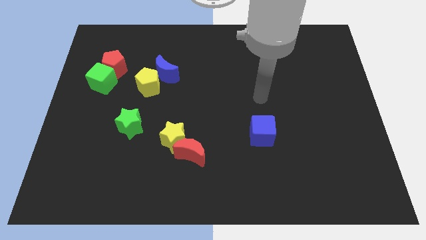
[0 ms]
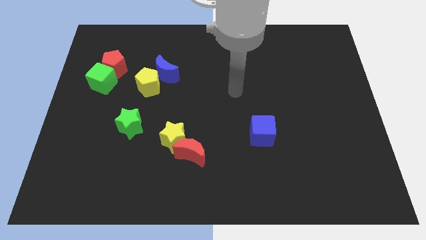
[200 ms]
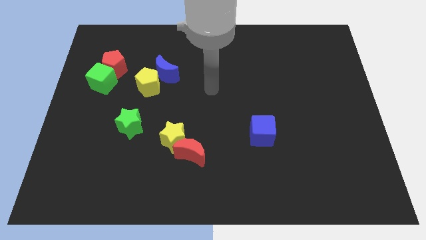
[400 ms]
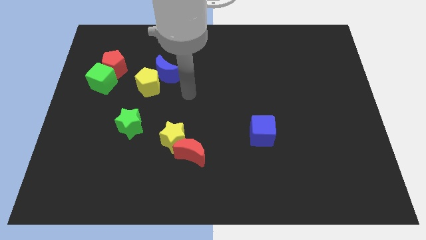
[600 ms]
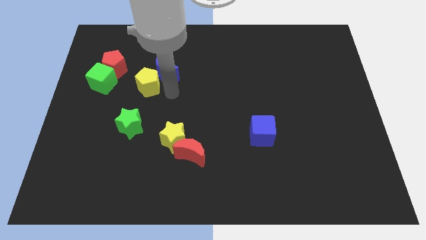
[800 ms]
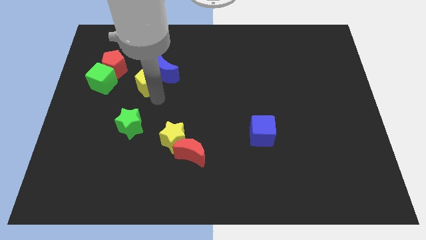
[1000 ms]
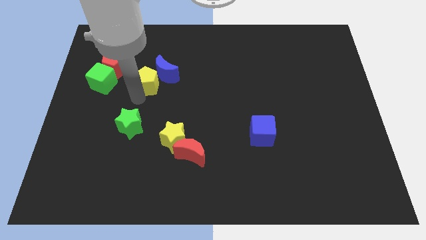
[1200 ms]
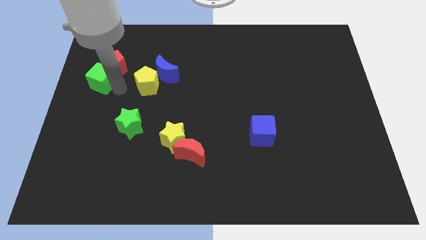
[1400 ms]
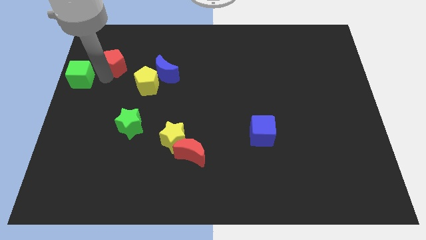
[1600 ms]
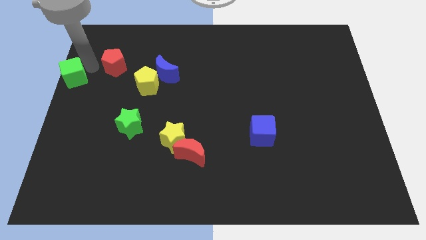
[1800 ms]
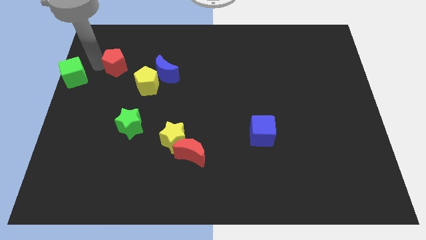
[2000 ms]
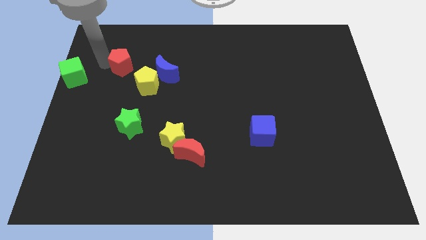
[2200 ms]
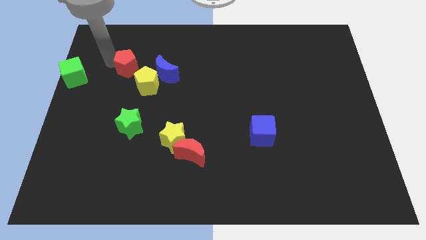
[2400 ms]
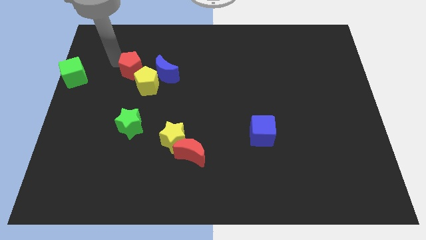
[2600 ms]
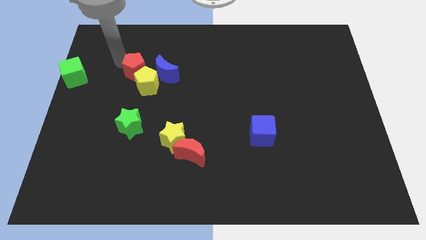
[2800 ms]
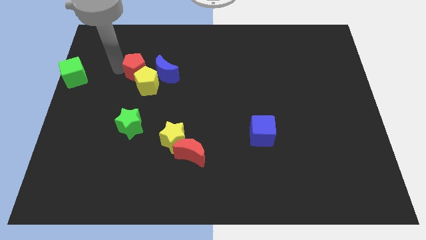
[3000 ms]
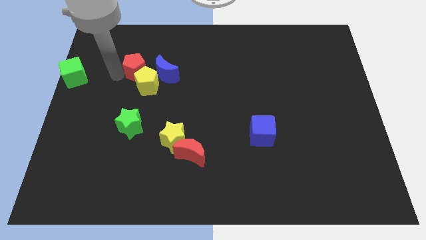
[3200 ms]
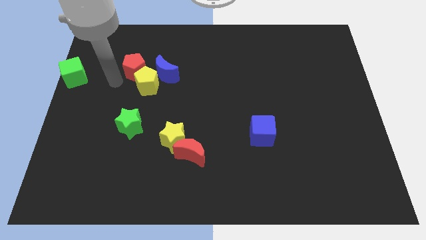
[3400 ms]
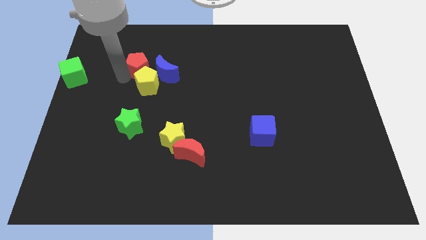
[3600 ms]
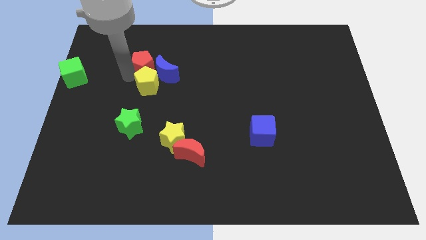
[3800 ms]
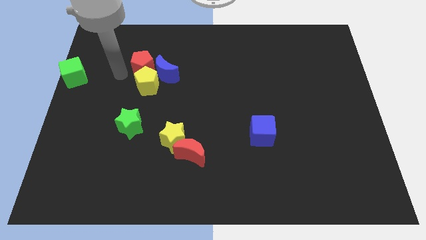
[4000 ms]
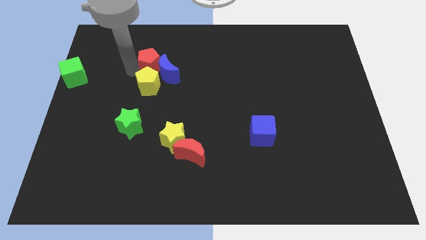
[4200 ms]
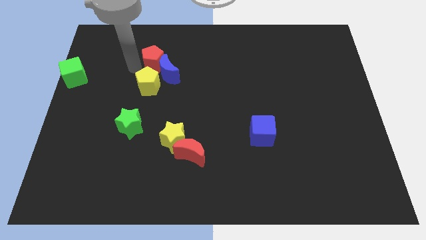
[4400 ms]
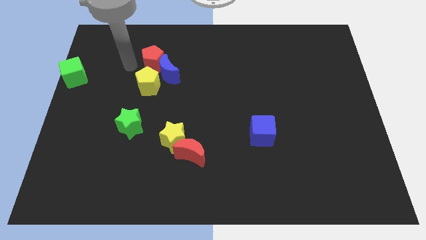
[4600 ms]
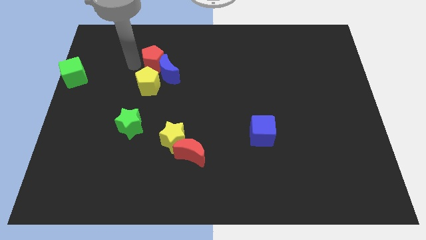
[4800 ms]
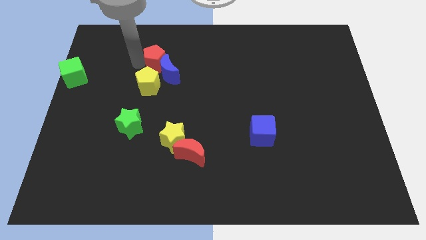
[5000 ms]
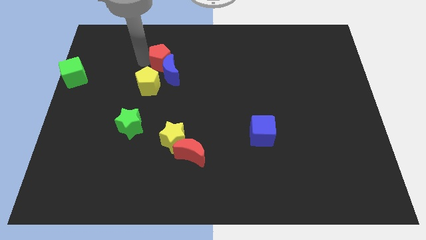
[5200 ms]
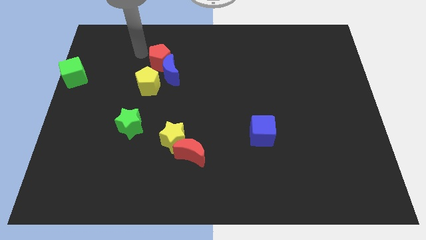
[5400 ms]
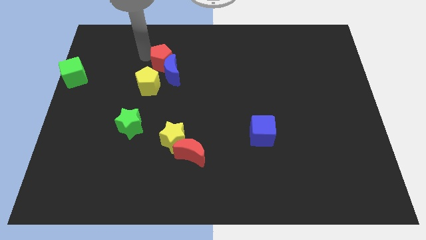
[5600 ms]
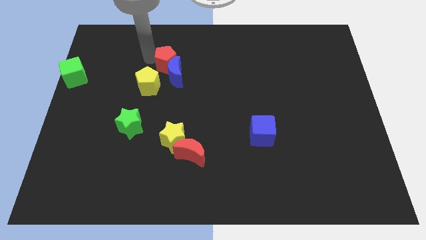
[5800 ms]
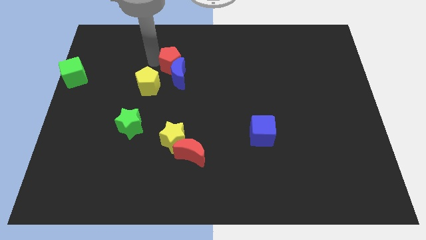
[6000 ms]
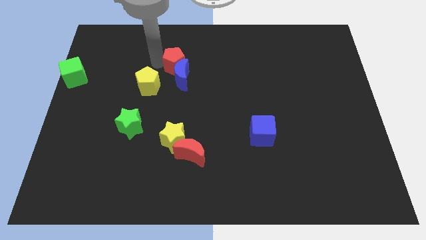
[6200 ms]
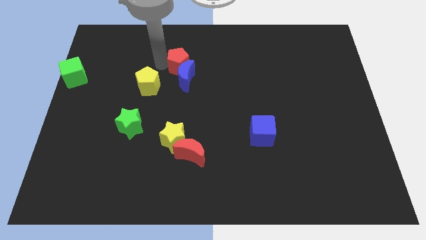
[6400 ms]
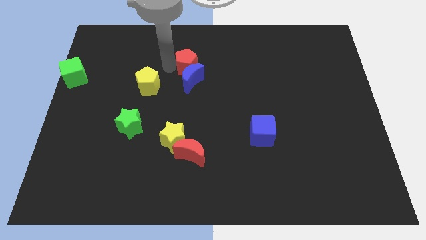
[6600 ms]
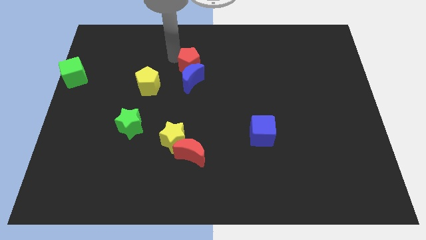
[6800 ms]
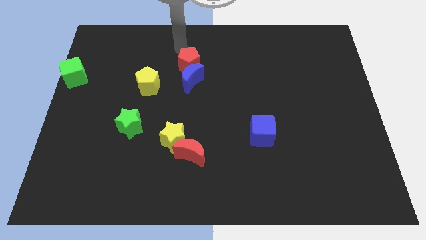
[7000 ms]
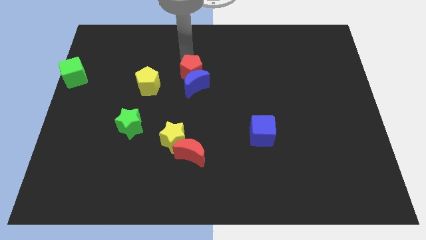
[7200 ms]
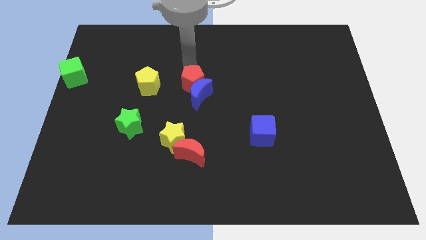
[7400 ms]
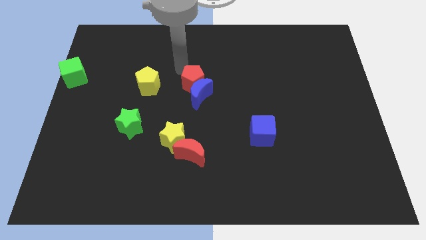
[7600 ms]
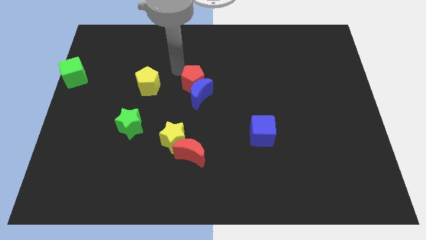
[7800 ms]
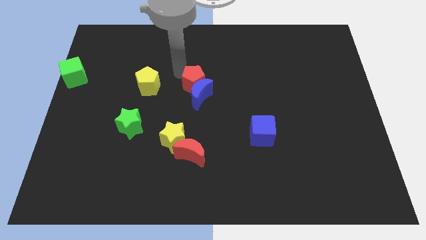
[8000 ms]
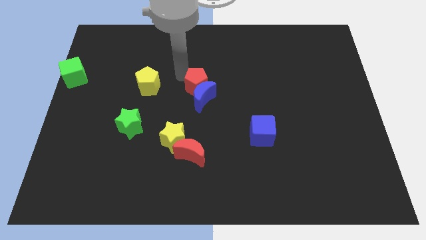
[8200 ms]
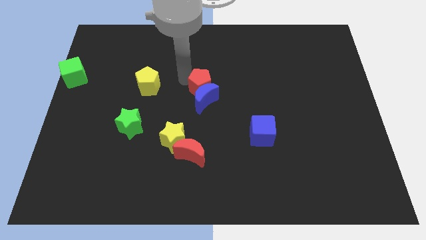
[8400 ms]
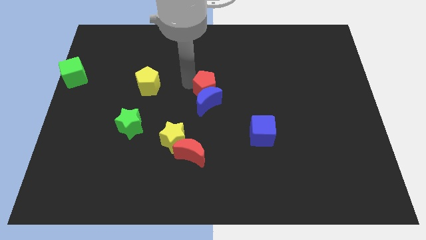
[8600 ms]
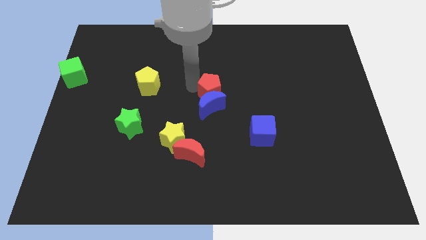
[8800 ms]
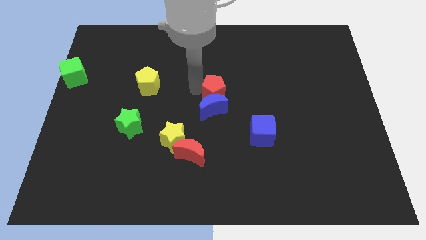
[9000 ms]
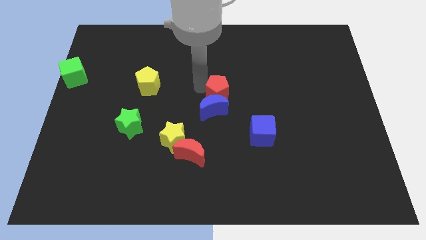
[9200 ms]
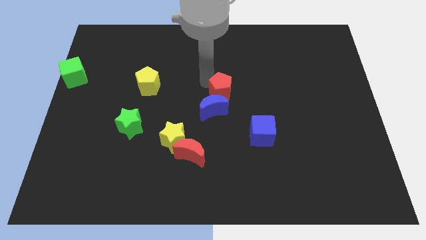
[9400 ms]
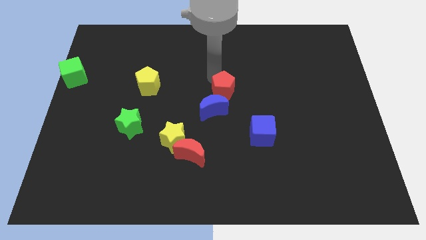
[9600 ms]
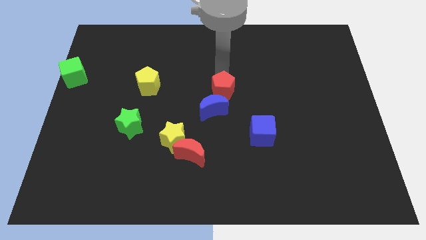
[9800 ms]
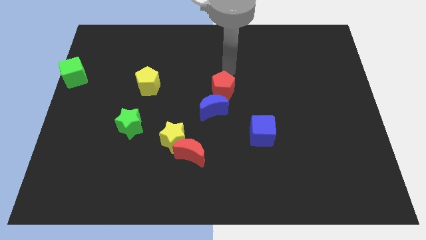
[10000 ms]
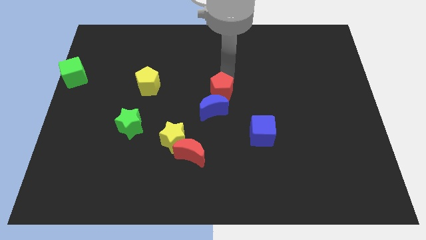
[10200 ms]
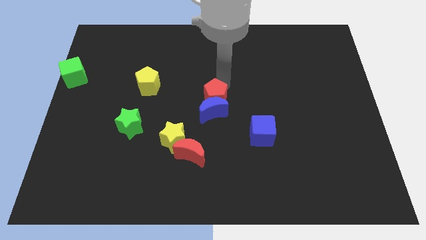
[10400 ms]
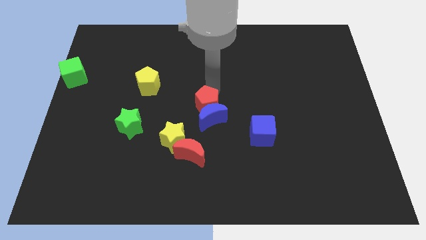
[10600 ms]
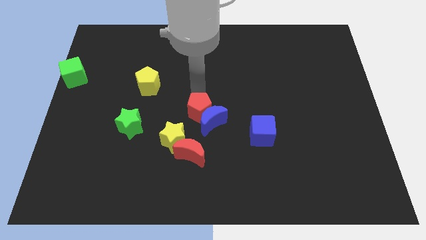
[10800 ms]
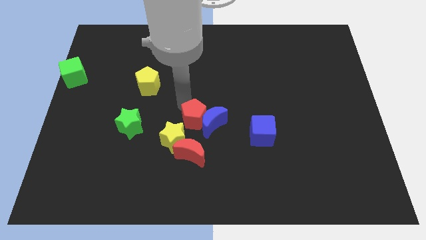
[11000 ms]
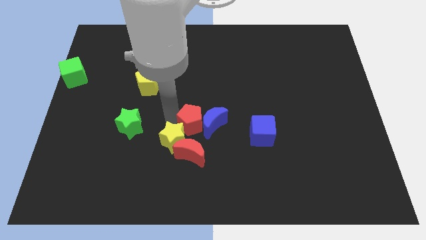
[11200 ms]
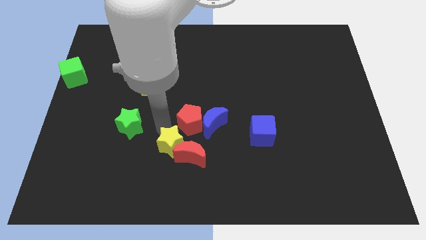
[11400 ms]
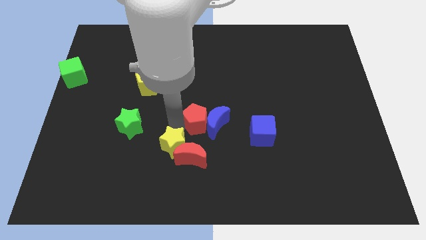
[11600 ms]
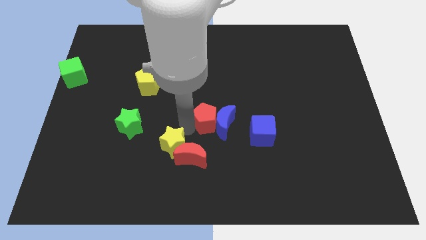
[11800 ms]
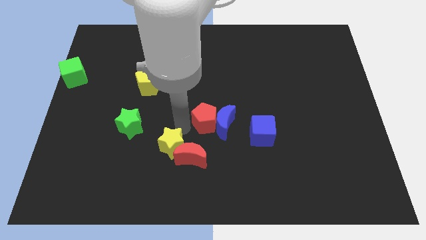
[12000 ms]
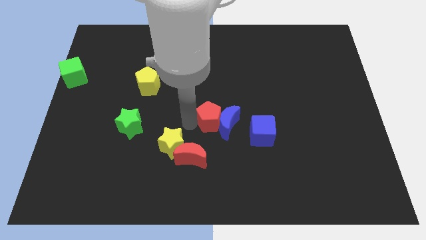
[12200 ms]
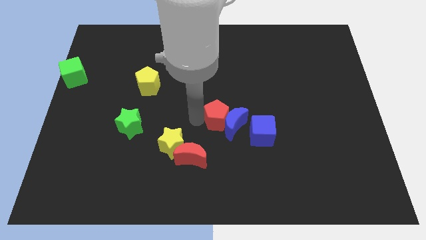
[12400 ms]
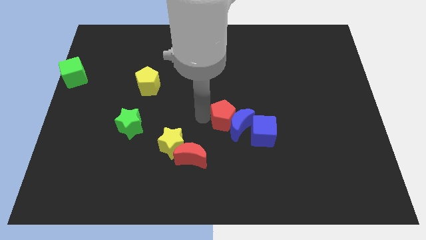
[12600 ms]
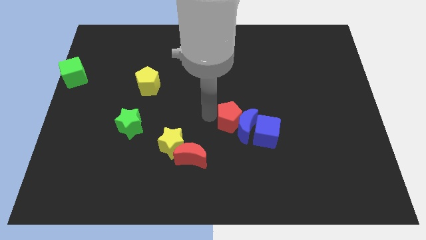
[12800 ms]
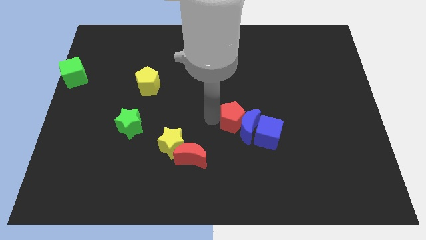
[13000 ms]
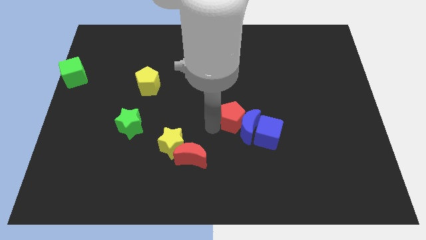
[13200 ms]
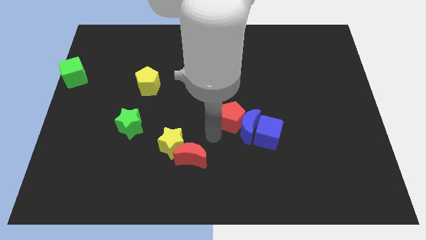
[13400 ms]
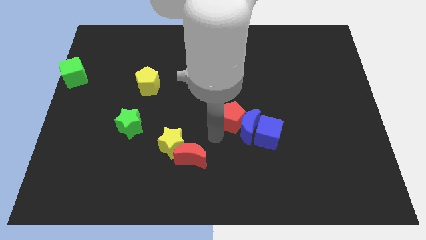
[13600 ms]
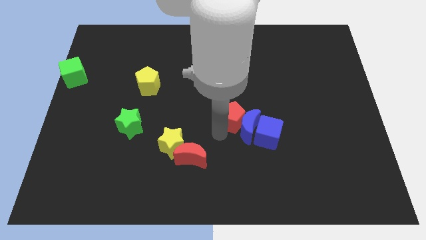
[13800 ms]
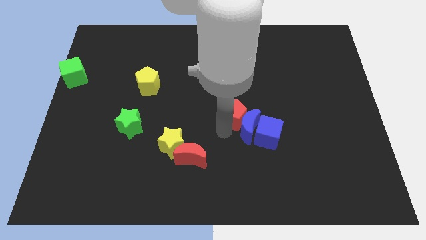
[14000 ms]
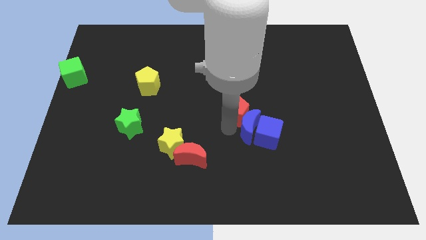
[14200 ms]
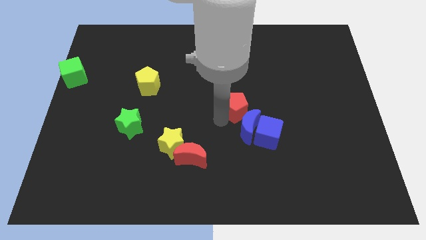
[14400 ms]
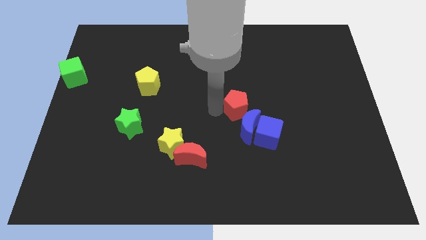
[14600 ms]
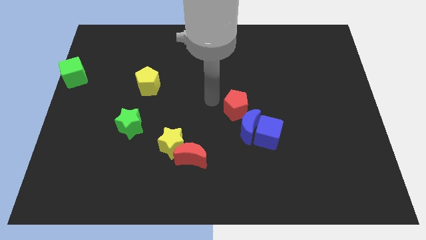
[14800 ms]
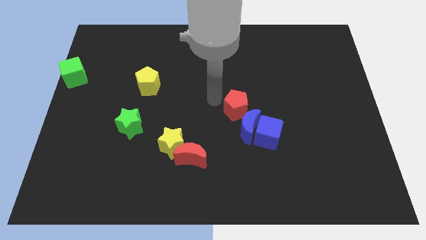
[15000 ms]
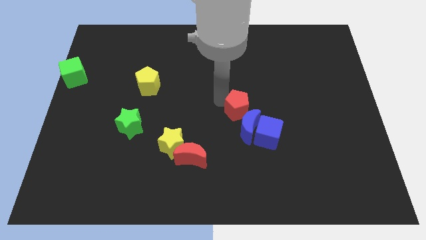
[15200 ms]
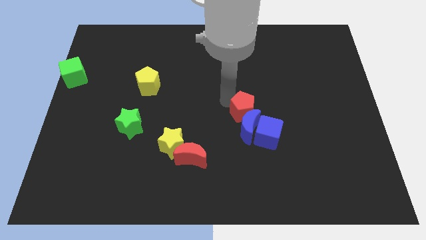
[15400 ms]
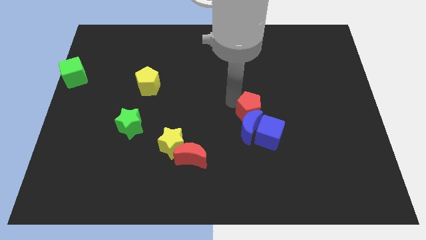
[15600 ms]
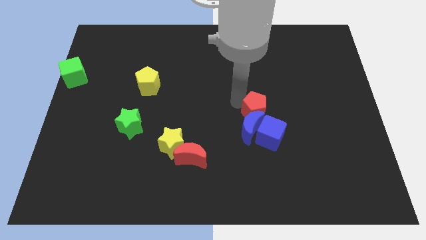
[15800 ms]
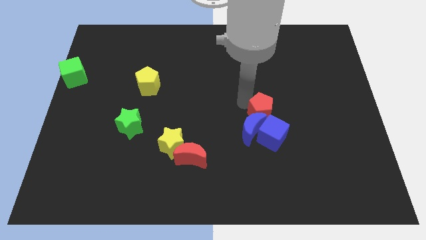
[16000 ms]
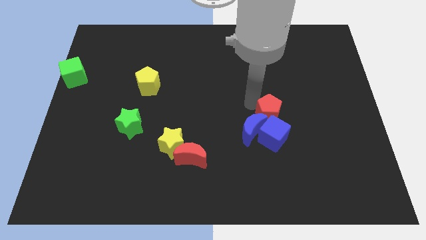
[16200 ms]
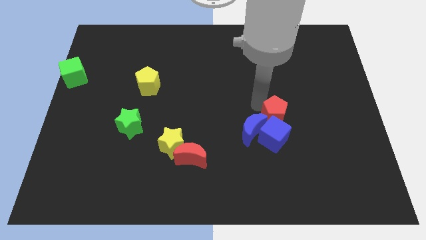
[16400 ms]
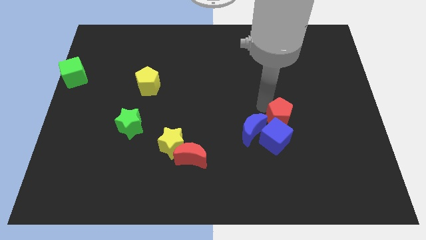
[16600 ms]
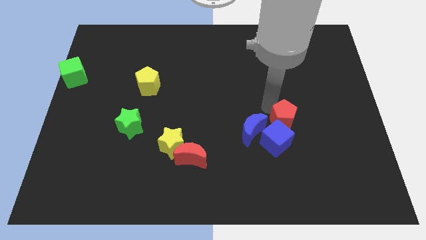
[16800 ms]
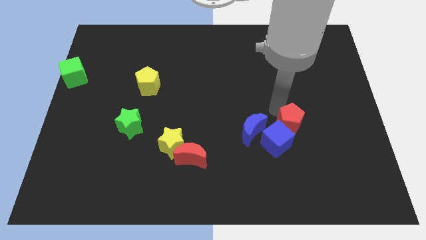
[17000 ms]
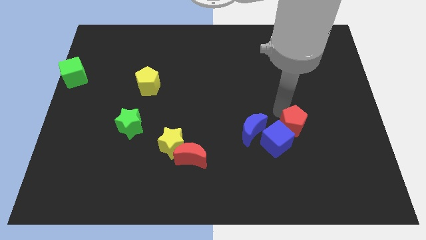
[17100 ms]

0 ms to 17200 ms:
move the red pentagon just right of the blue cube
